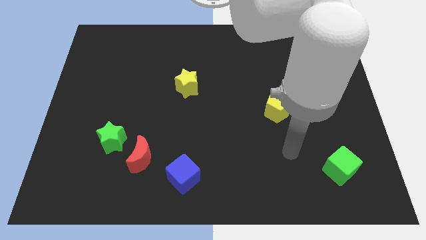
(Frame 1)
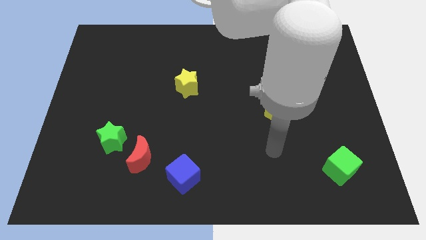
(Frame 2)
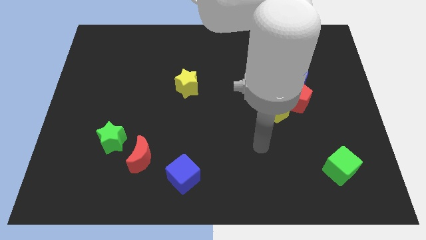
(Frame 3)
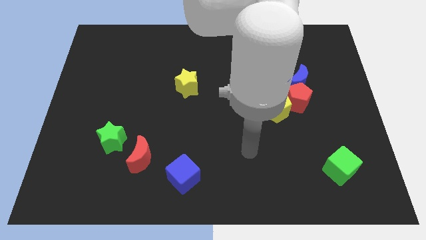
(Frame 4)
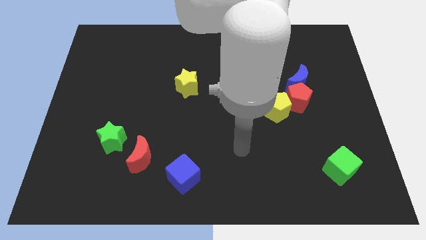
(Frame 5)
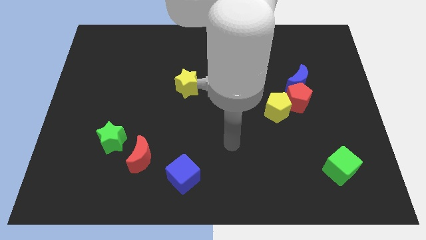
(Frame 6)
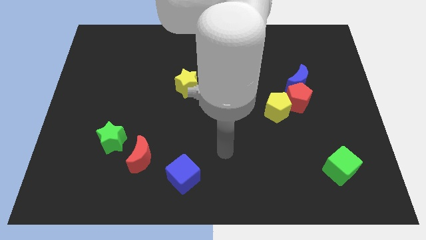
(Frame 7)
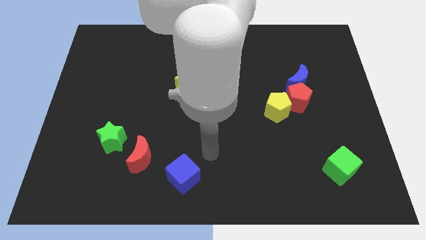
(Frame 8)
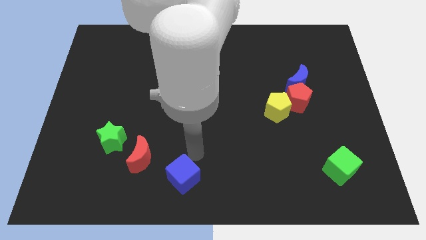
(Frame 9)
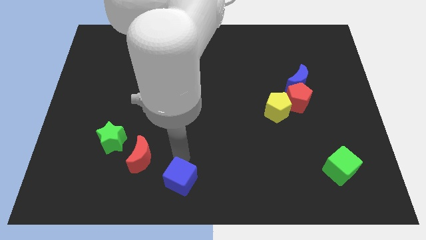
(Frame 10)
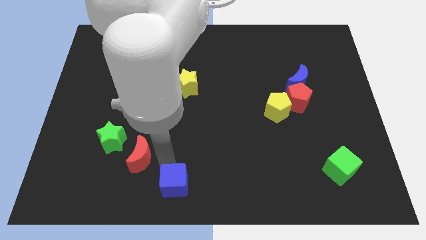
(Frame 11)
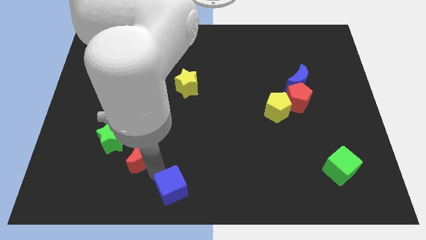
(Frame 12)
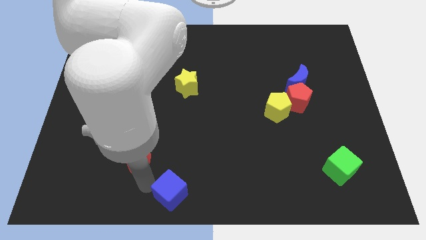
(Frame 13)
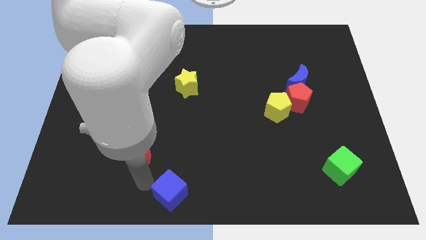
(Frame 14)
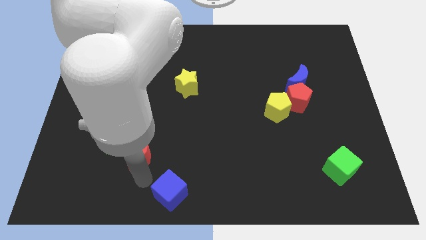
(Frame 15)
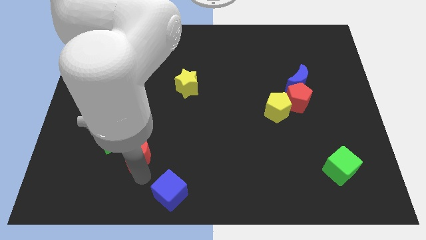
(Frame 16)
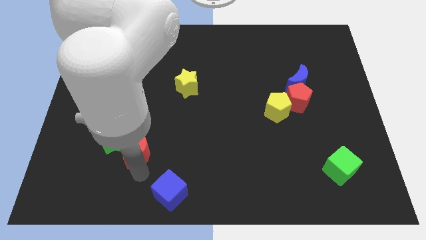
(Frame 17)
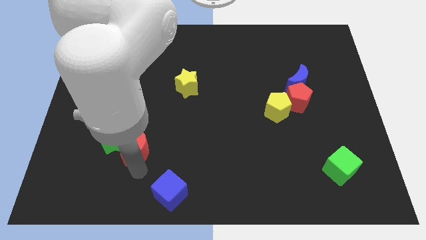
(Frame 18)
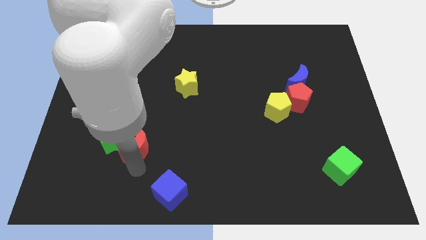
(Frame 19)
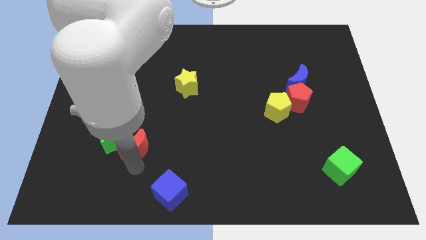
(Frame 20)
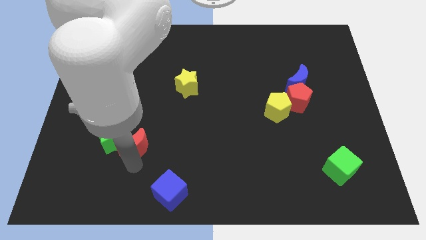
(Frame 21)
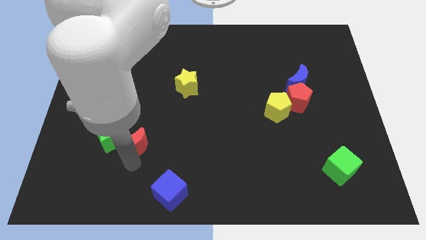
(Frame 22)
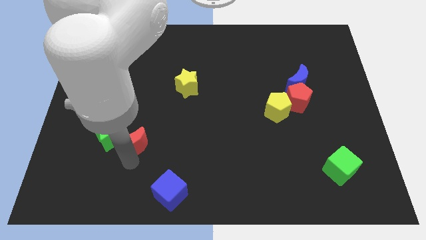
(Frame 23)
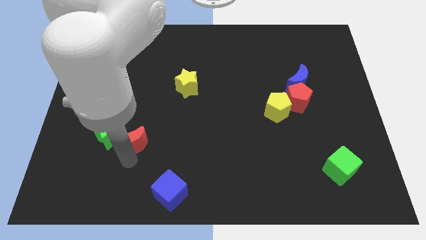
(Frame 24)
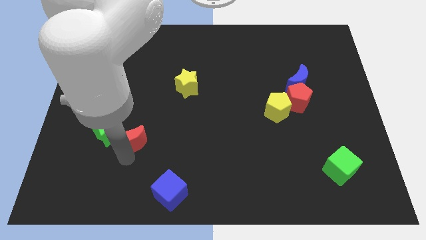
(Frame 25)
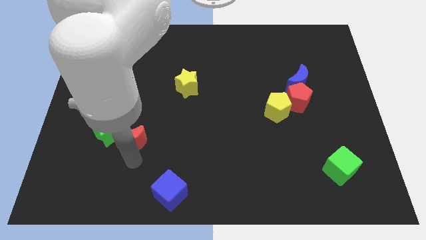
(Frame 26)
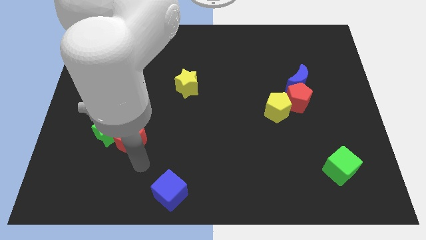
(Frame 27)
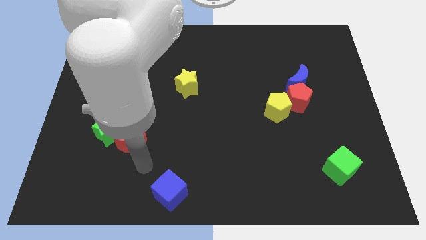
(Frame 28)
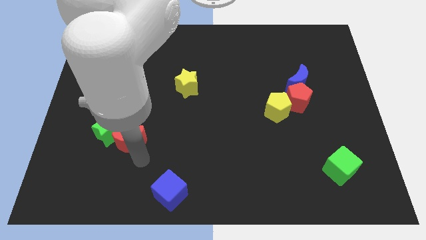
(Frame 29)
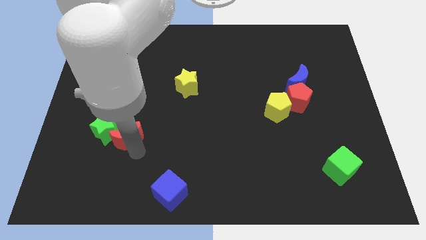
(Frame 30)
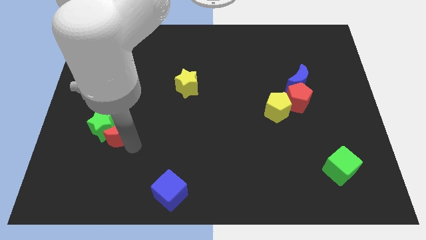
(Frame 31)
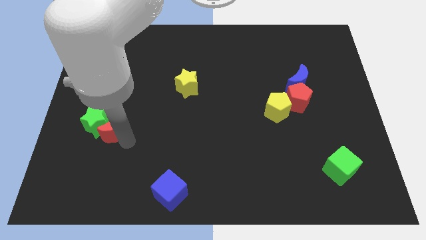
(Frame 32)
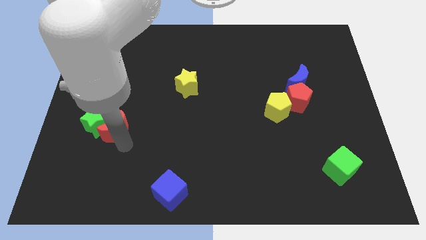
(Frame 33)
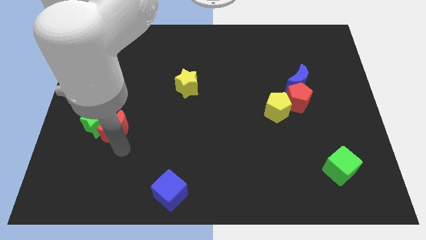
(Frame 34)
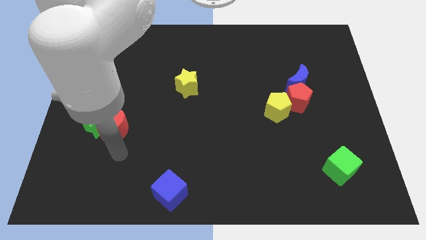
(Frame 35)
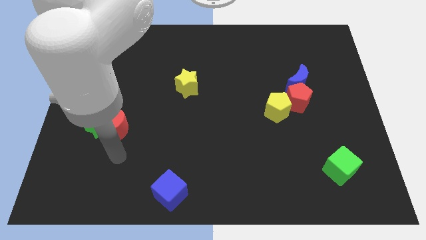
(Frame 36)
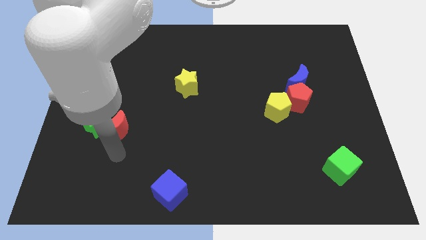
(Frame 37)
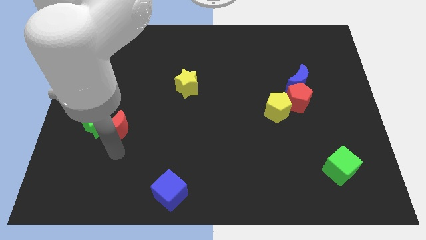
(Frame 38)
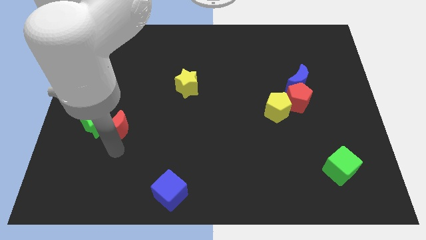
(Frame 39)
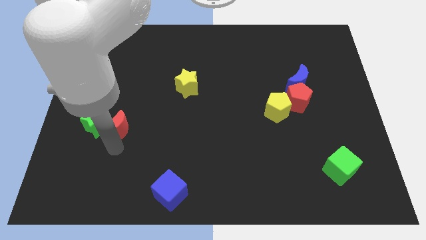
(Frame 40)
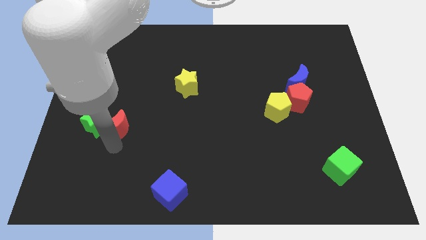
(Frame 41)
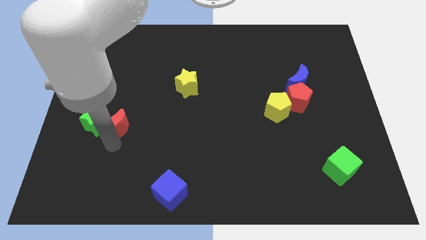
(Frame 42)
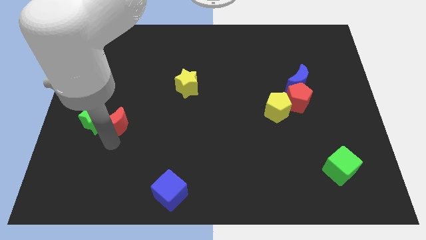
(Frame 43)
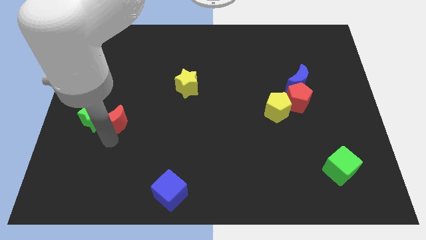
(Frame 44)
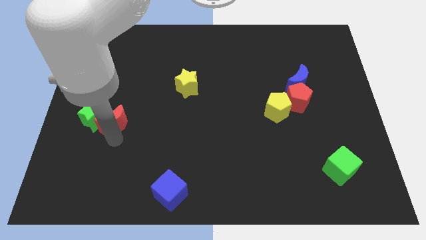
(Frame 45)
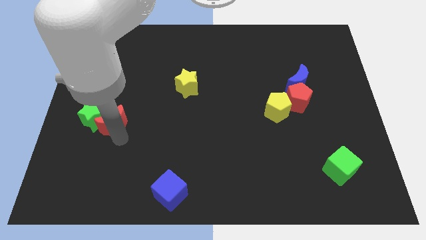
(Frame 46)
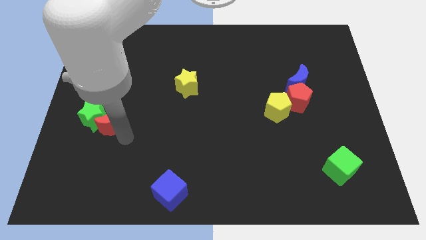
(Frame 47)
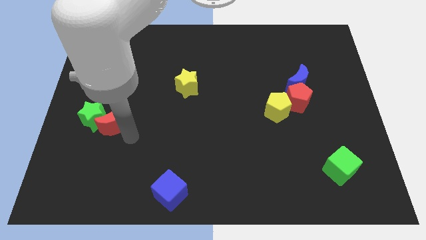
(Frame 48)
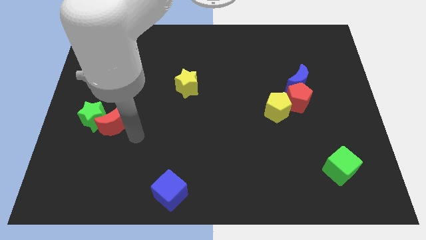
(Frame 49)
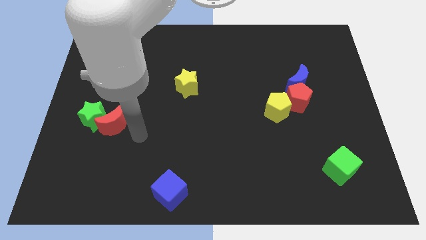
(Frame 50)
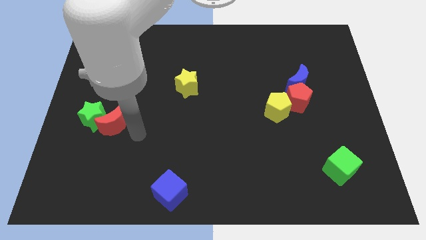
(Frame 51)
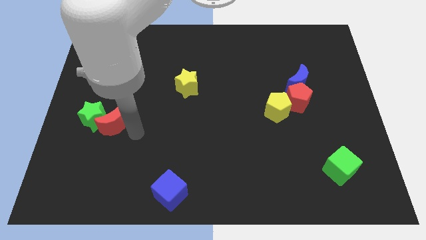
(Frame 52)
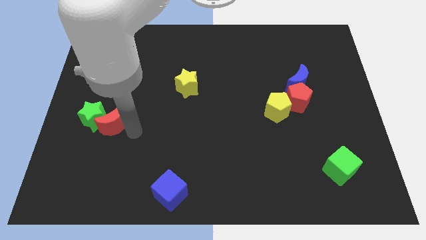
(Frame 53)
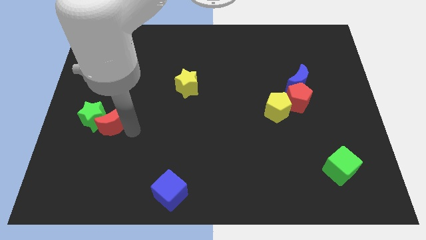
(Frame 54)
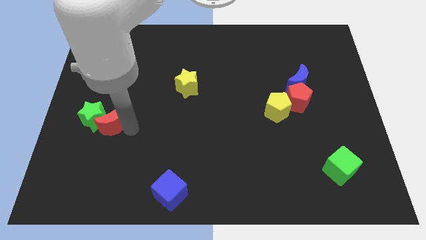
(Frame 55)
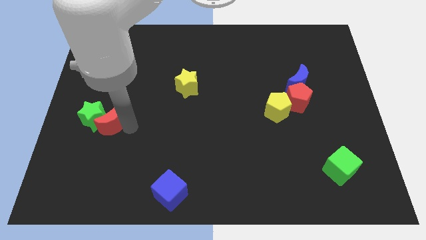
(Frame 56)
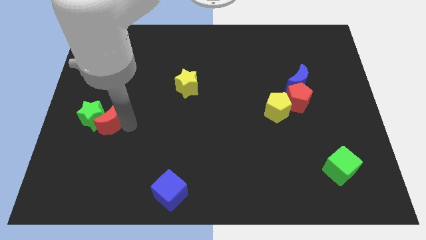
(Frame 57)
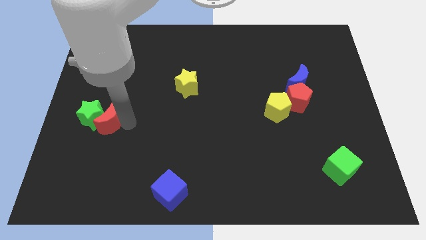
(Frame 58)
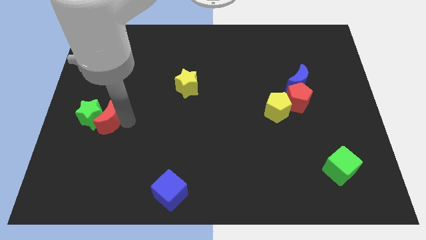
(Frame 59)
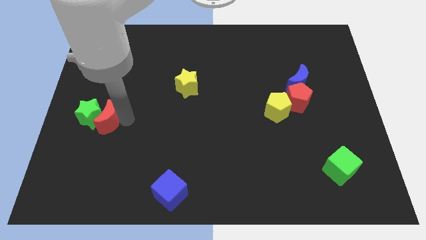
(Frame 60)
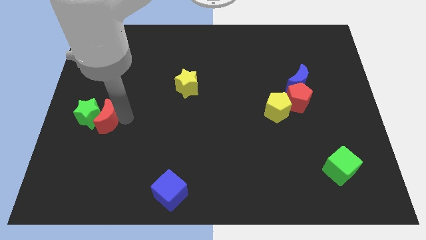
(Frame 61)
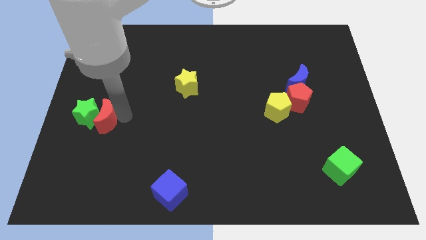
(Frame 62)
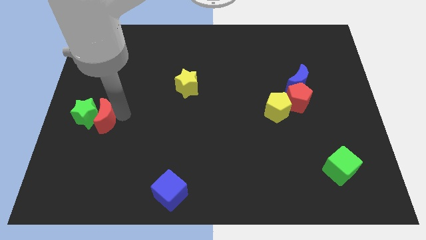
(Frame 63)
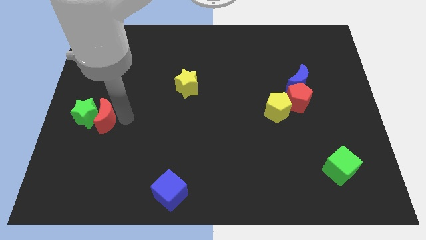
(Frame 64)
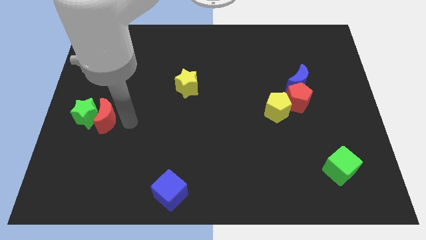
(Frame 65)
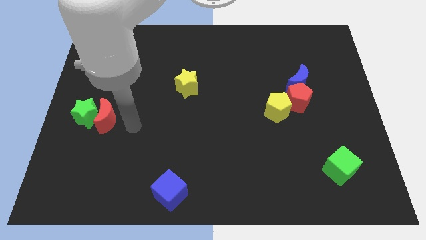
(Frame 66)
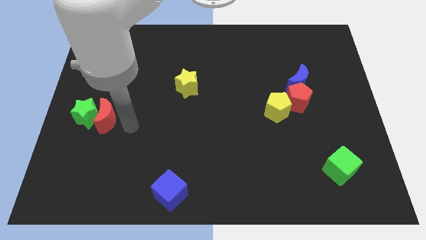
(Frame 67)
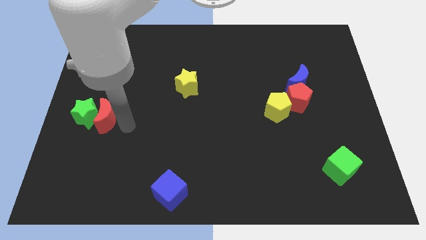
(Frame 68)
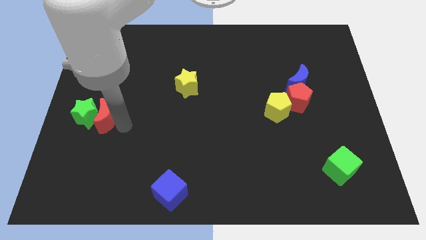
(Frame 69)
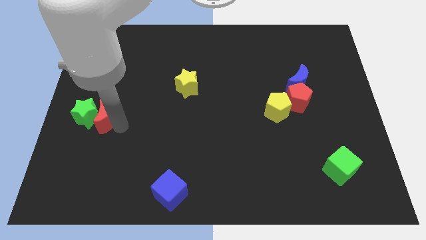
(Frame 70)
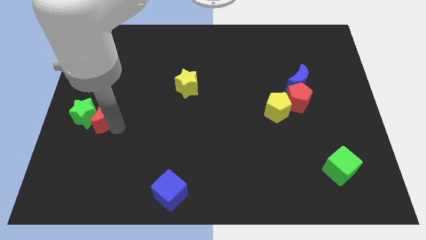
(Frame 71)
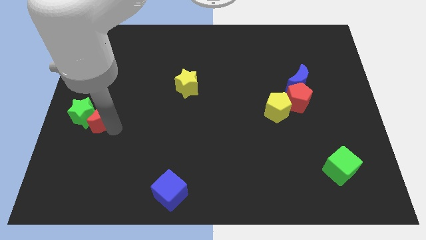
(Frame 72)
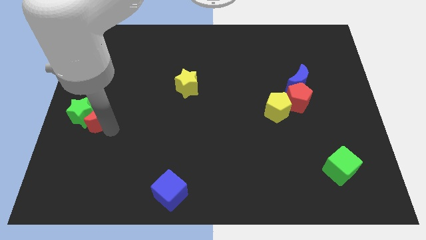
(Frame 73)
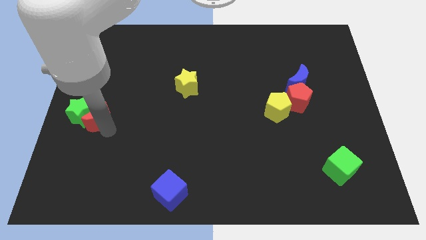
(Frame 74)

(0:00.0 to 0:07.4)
move the red moon to the center left
